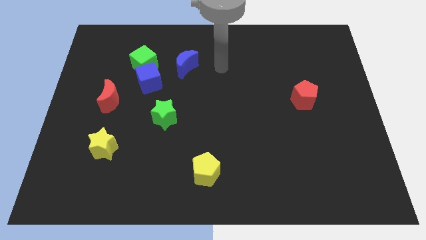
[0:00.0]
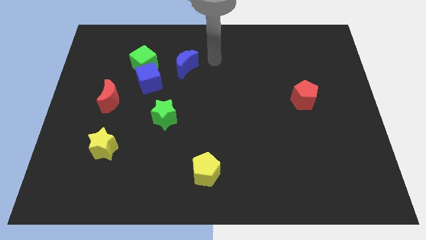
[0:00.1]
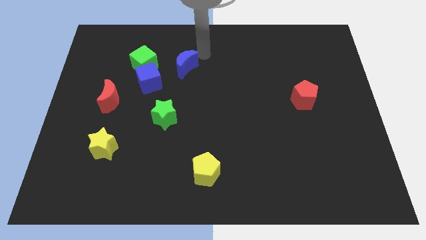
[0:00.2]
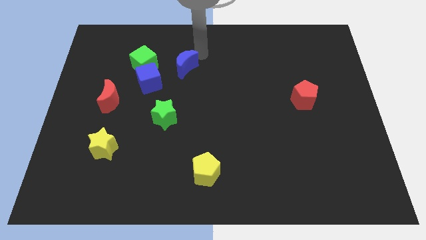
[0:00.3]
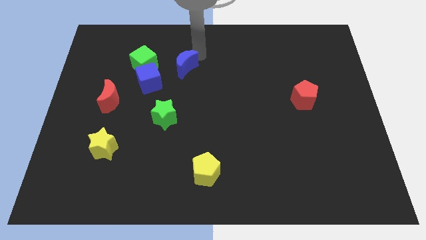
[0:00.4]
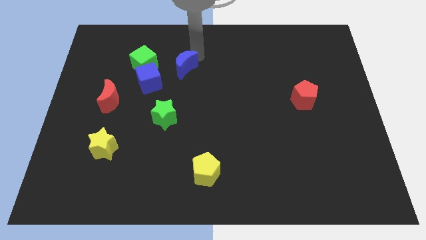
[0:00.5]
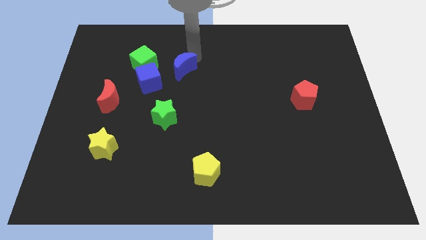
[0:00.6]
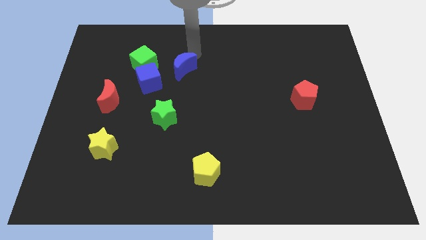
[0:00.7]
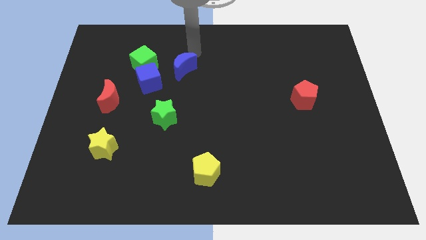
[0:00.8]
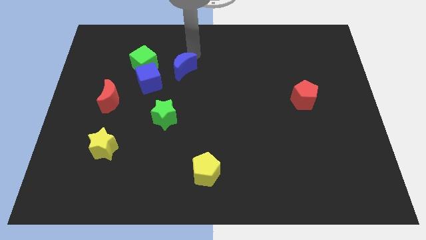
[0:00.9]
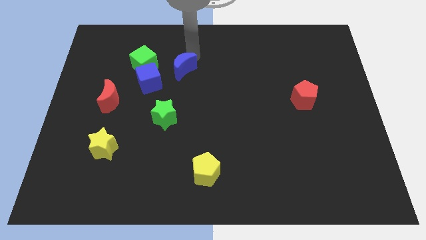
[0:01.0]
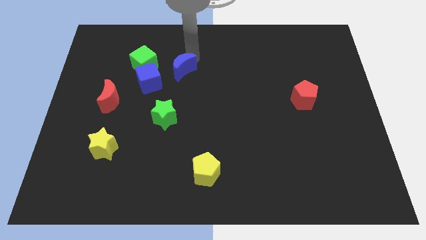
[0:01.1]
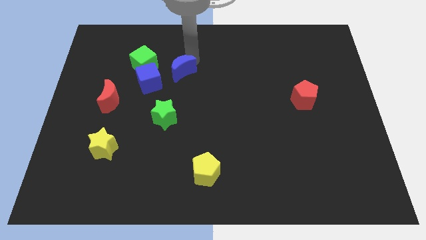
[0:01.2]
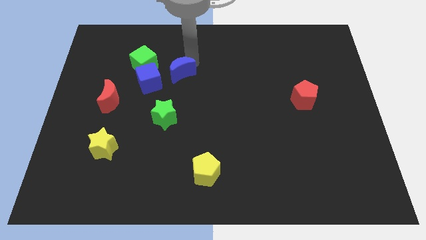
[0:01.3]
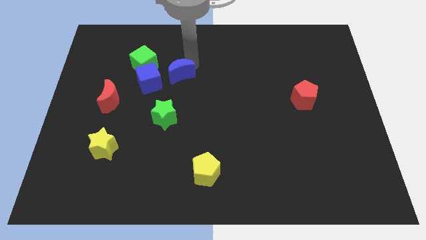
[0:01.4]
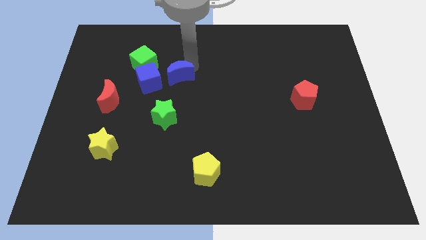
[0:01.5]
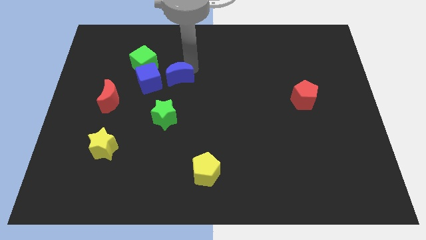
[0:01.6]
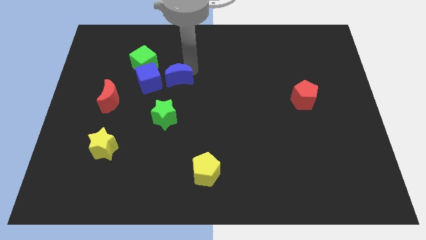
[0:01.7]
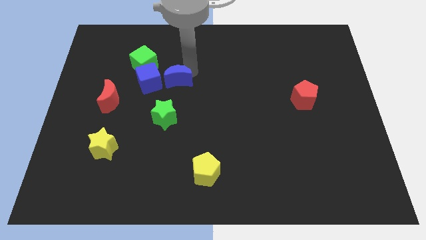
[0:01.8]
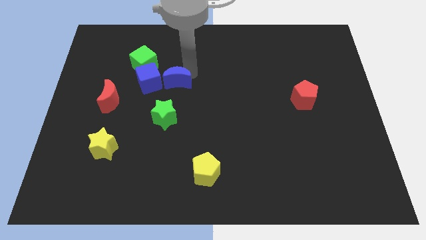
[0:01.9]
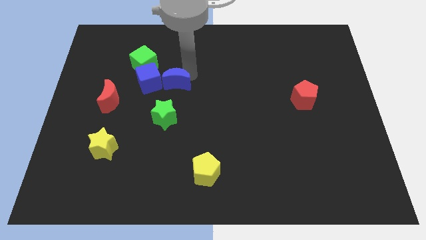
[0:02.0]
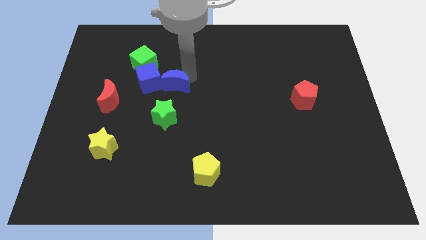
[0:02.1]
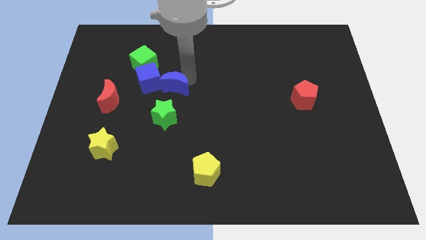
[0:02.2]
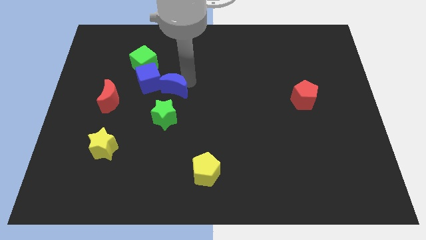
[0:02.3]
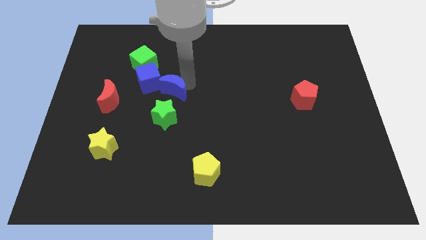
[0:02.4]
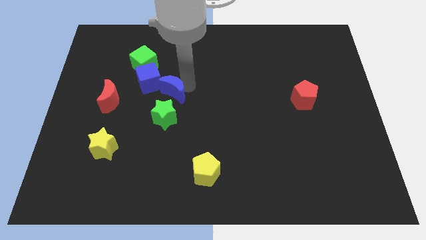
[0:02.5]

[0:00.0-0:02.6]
slide the blue moon a bit downwards and left

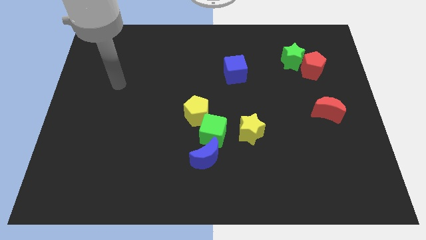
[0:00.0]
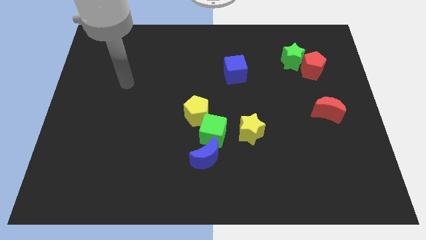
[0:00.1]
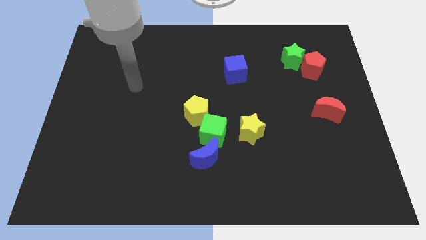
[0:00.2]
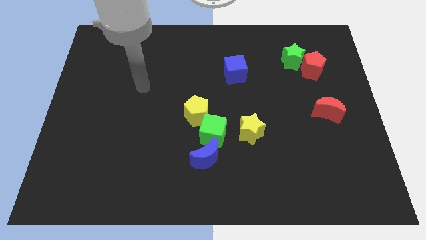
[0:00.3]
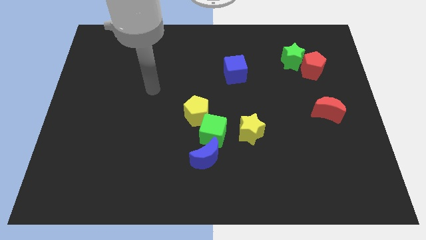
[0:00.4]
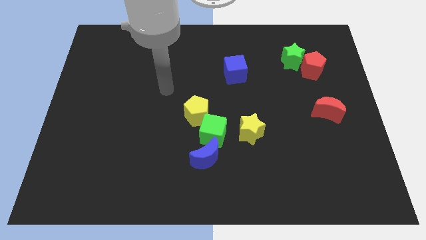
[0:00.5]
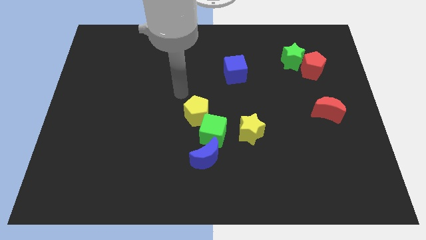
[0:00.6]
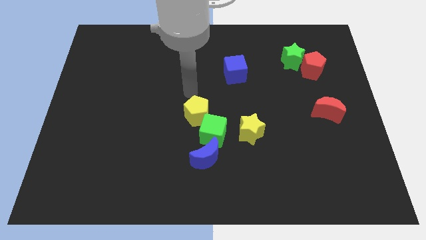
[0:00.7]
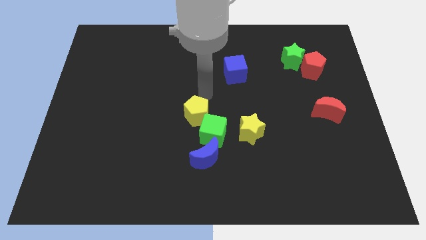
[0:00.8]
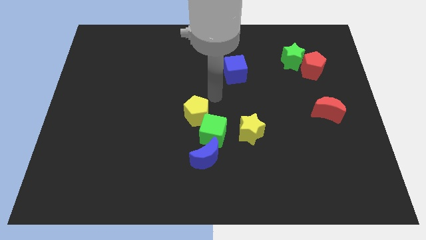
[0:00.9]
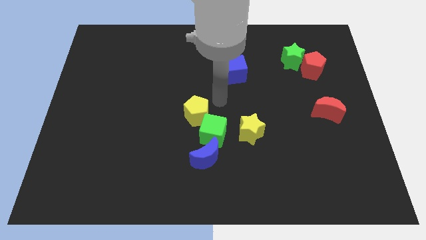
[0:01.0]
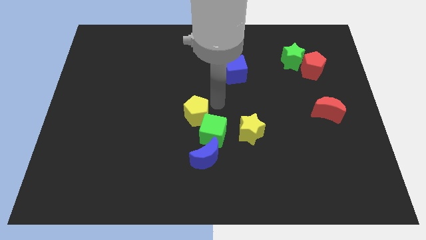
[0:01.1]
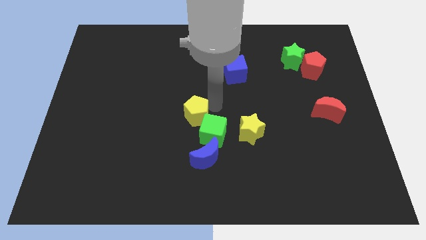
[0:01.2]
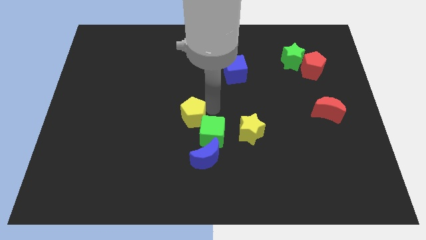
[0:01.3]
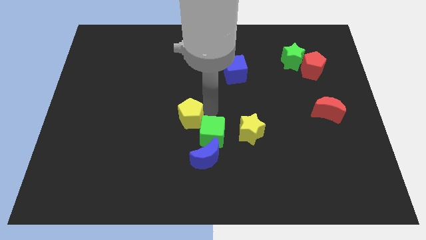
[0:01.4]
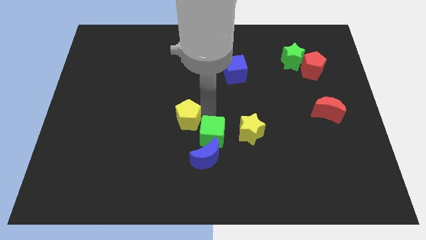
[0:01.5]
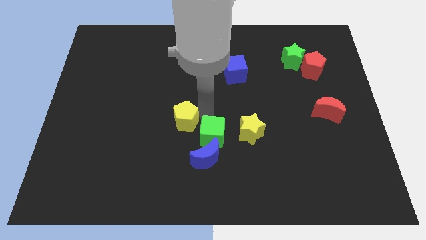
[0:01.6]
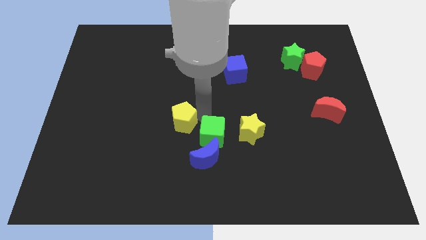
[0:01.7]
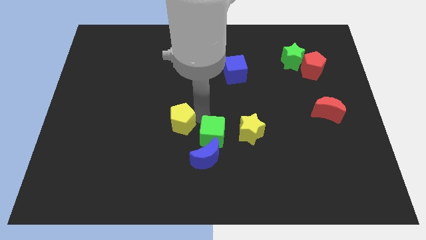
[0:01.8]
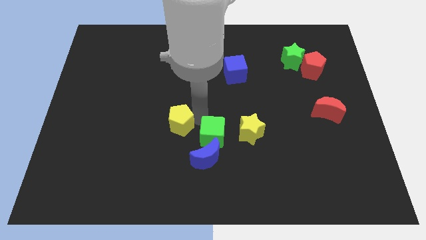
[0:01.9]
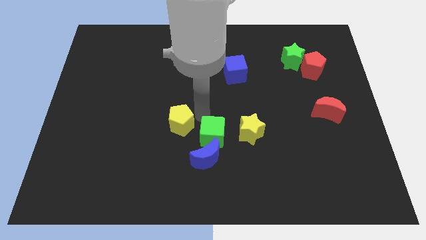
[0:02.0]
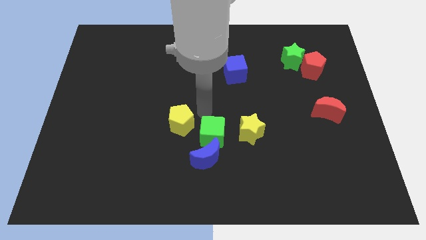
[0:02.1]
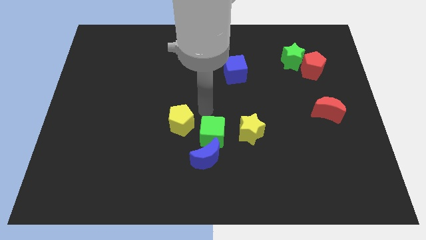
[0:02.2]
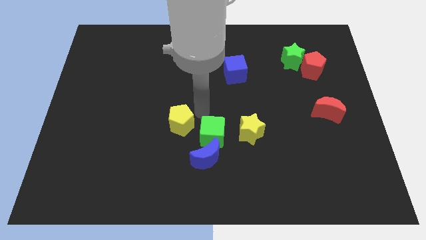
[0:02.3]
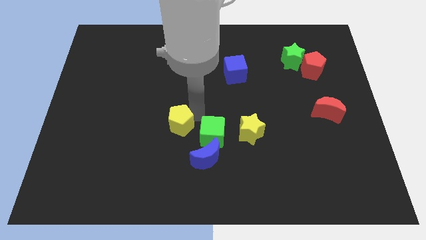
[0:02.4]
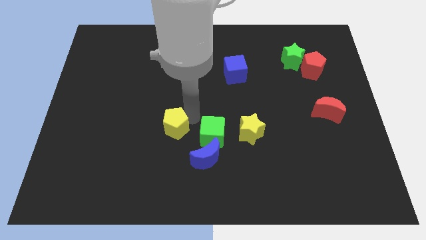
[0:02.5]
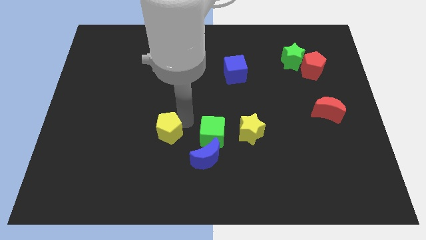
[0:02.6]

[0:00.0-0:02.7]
slightly move the yellow pentagon diagonally downwards and left

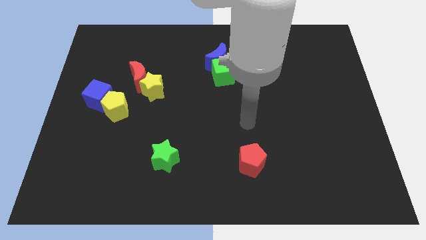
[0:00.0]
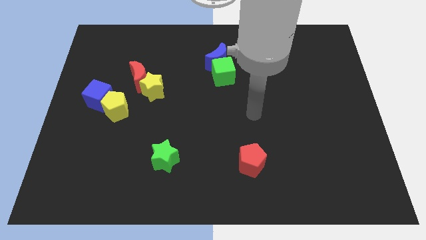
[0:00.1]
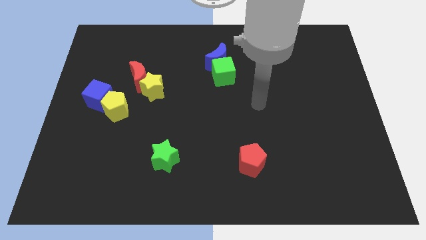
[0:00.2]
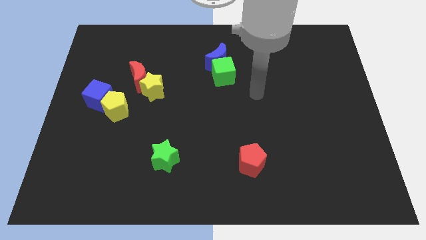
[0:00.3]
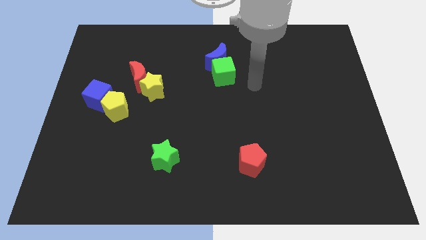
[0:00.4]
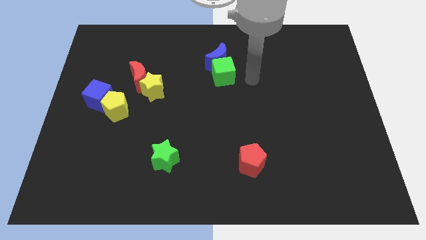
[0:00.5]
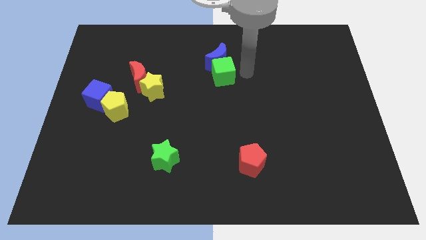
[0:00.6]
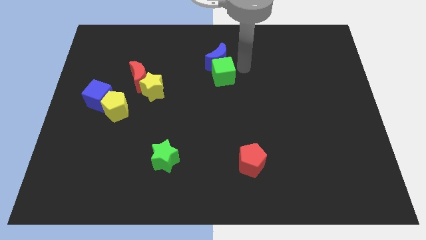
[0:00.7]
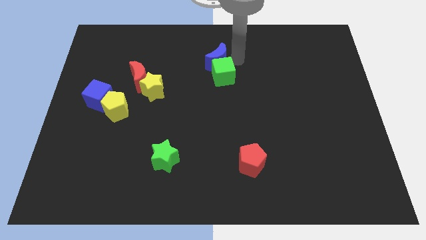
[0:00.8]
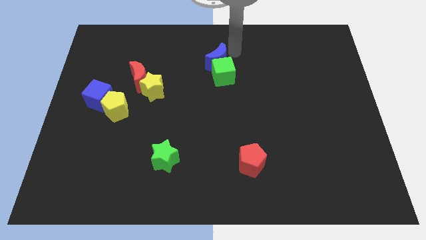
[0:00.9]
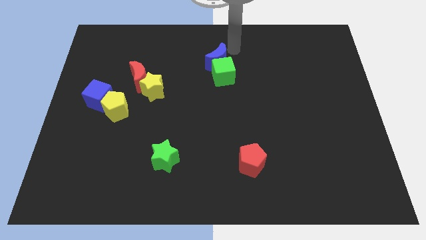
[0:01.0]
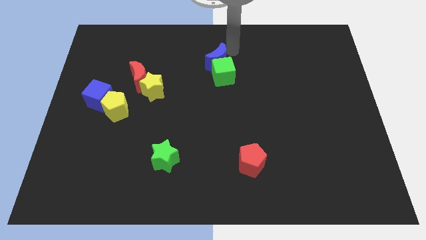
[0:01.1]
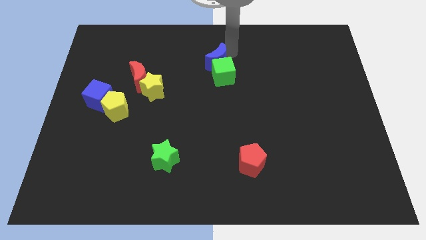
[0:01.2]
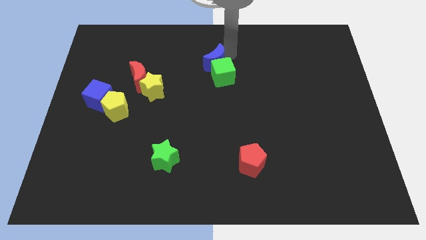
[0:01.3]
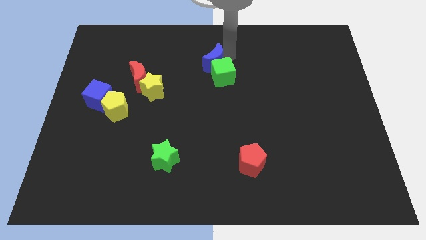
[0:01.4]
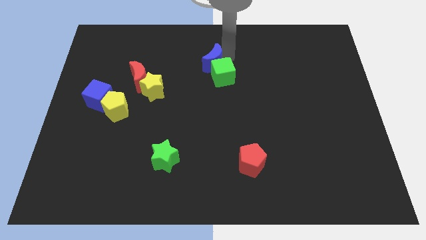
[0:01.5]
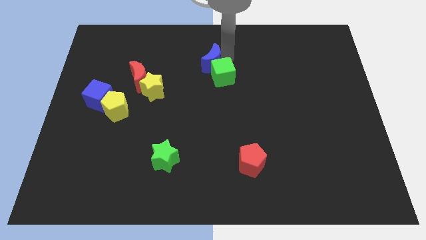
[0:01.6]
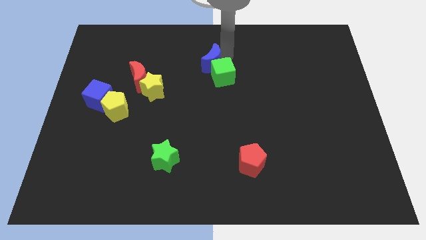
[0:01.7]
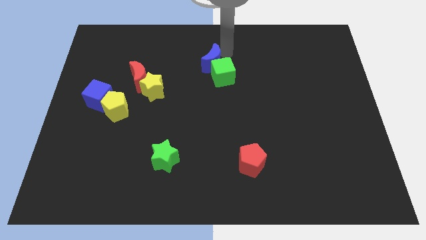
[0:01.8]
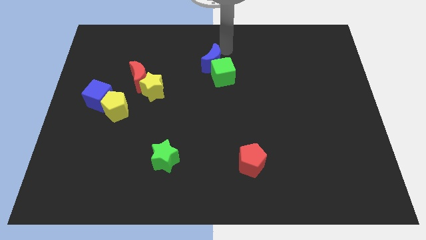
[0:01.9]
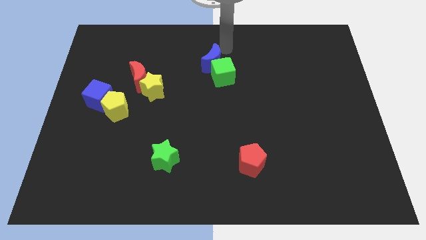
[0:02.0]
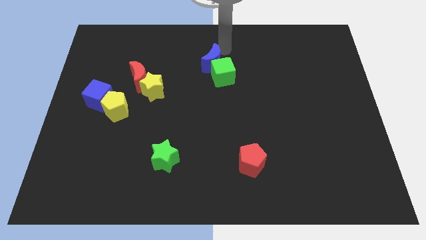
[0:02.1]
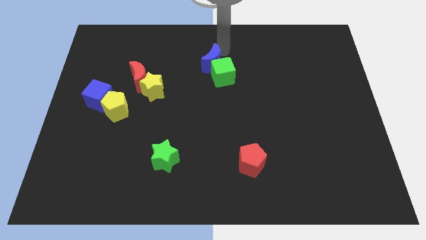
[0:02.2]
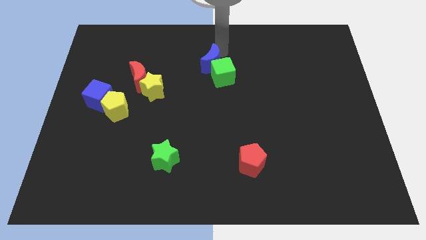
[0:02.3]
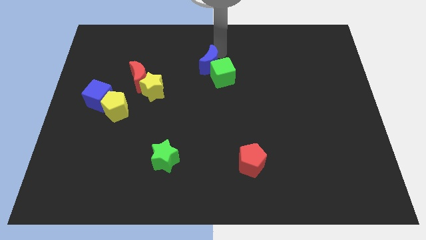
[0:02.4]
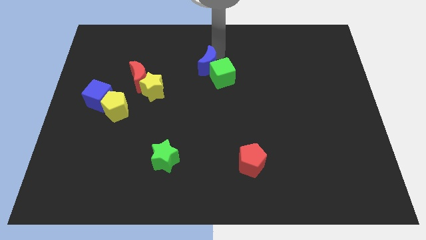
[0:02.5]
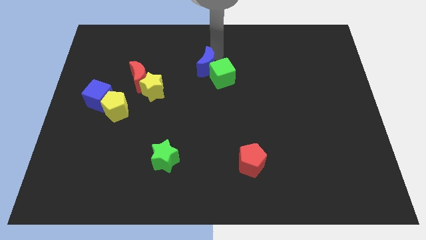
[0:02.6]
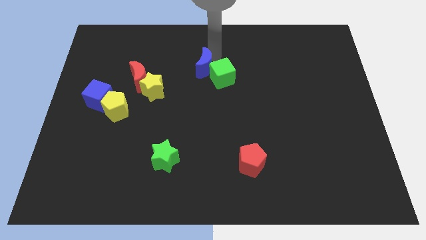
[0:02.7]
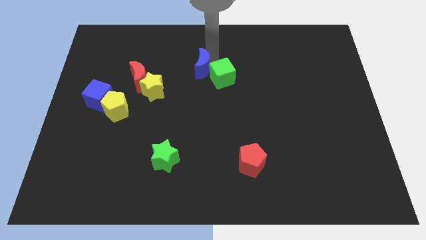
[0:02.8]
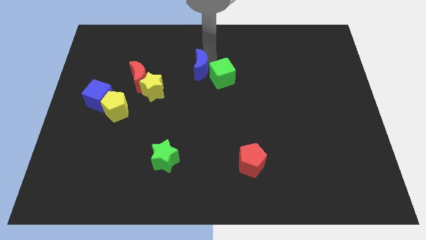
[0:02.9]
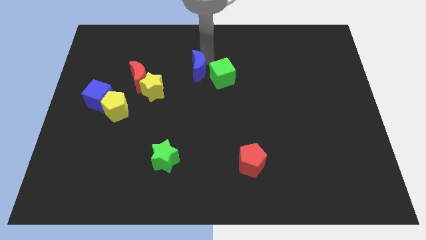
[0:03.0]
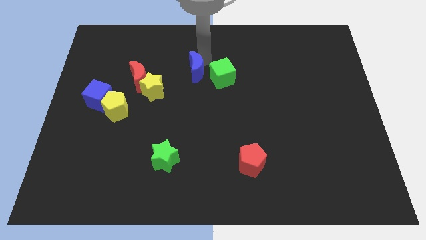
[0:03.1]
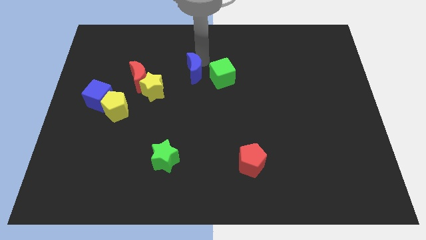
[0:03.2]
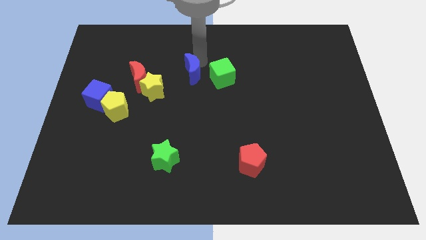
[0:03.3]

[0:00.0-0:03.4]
move the blue moon diagonally down and left somewhat
